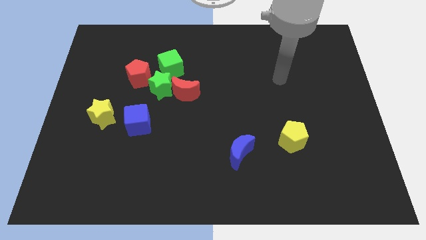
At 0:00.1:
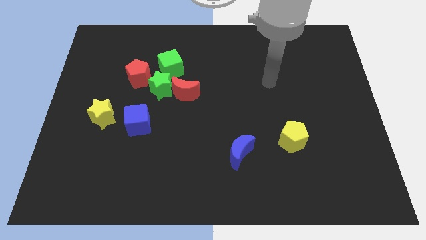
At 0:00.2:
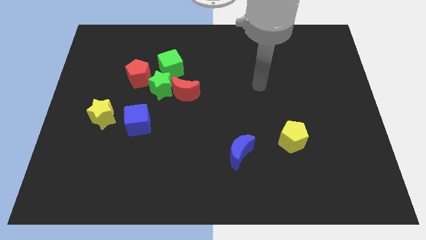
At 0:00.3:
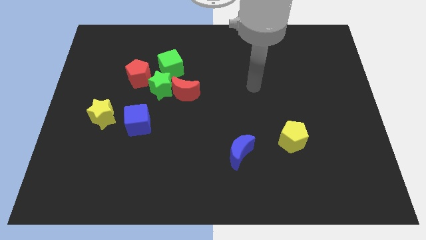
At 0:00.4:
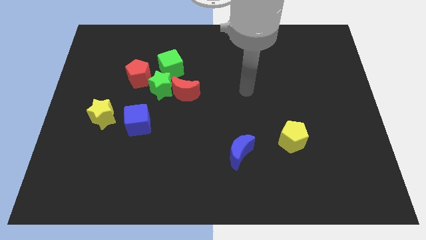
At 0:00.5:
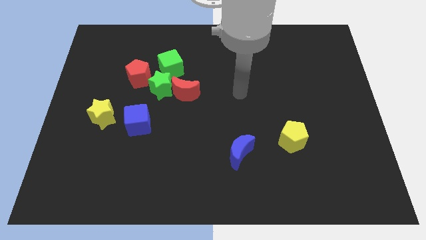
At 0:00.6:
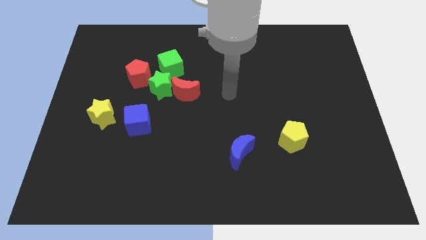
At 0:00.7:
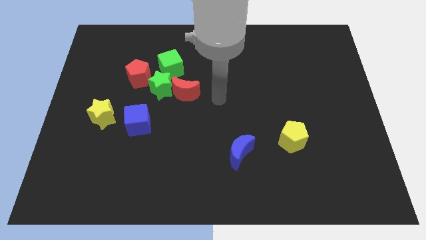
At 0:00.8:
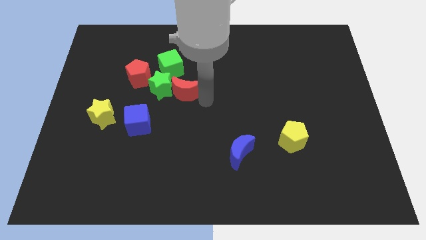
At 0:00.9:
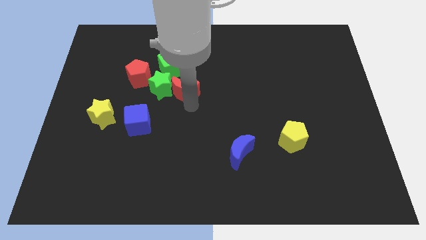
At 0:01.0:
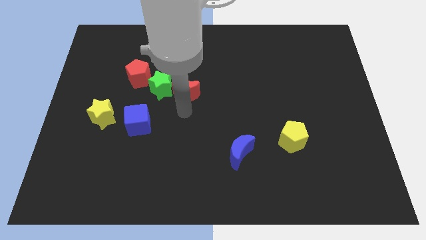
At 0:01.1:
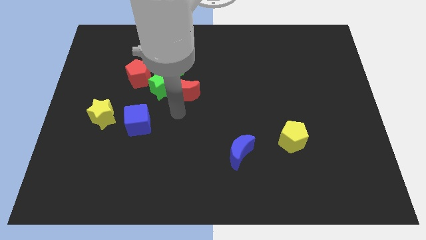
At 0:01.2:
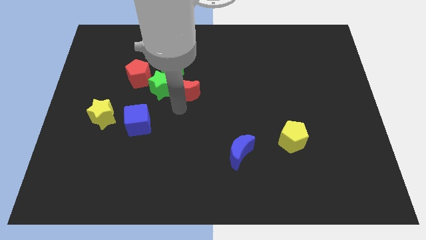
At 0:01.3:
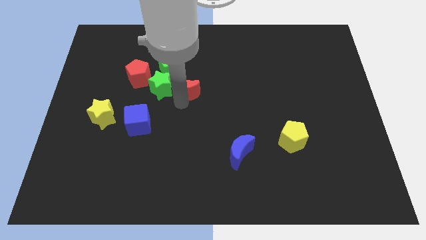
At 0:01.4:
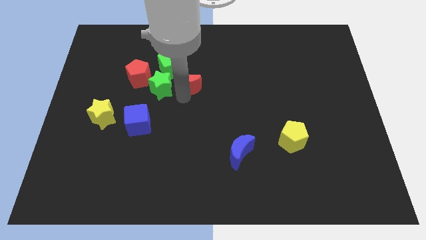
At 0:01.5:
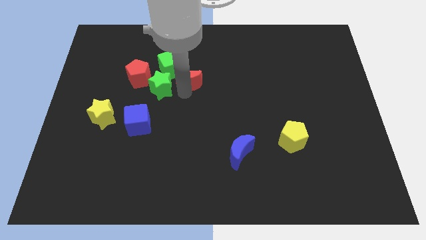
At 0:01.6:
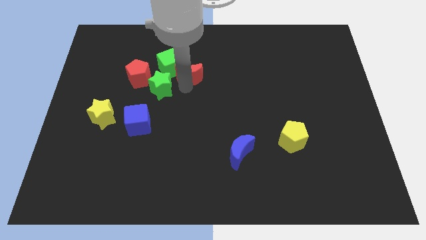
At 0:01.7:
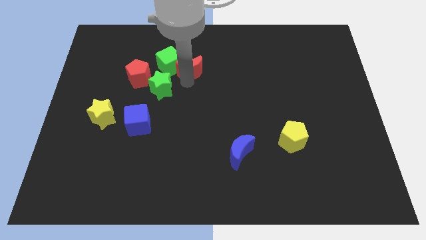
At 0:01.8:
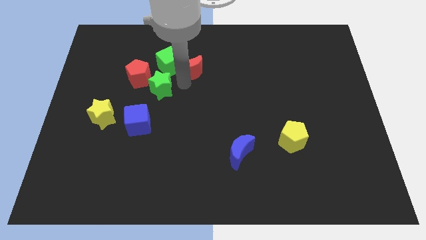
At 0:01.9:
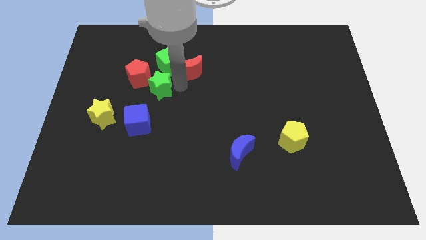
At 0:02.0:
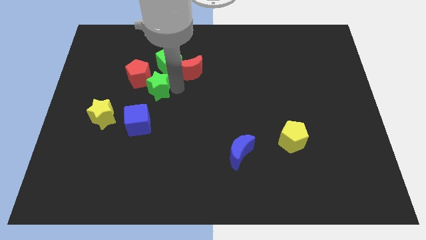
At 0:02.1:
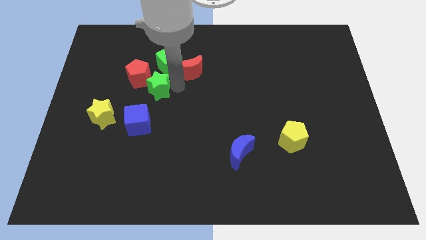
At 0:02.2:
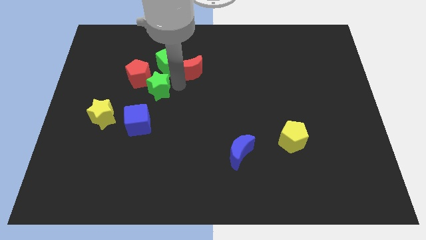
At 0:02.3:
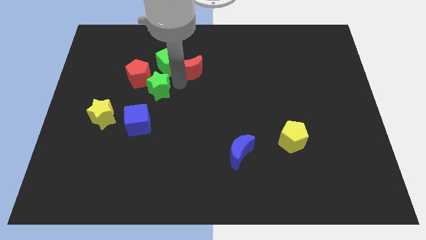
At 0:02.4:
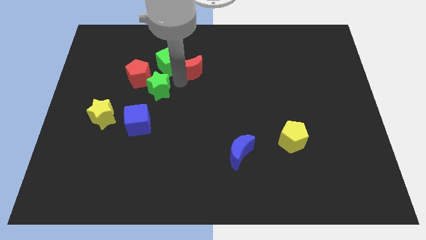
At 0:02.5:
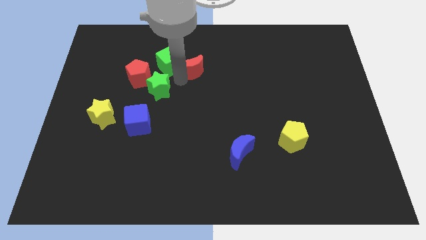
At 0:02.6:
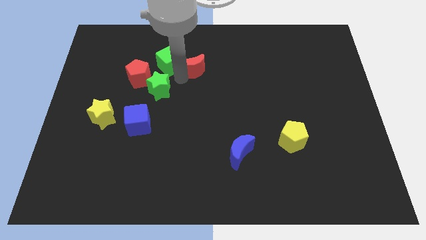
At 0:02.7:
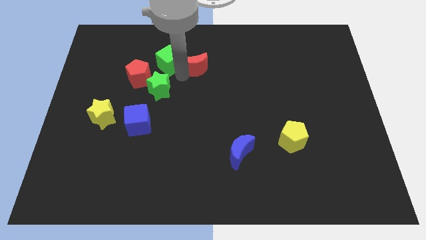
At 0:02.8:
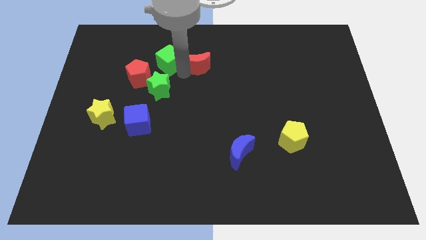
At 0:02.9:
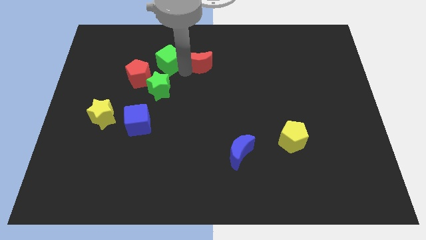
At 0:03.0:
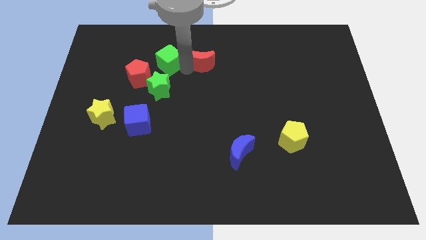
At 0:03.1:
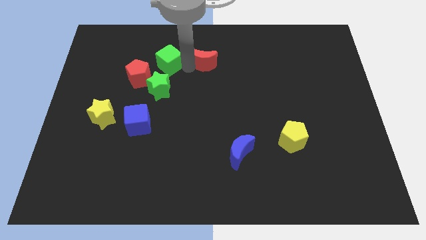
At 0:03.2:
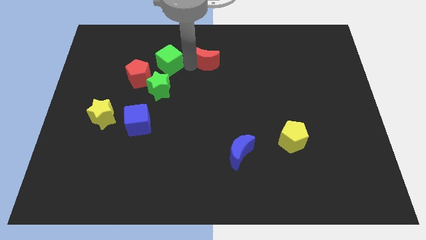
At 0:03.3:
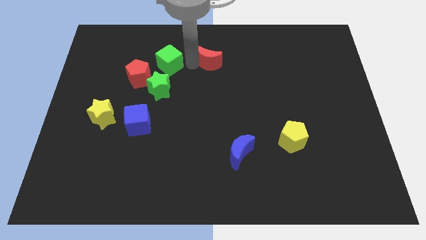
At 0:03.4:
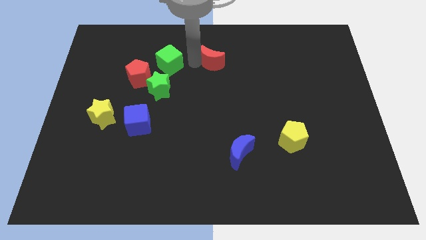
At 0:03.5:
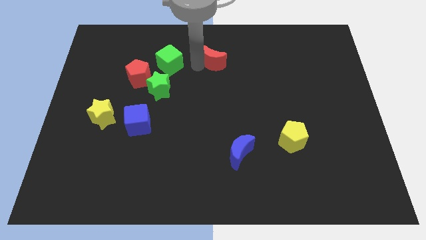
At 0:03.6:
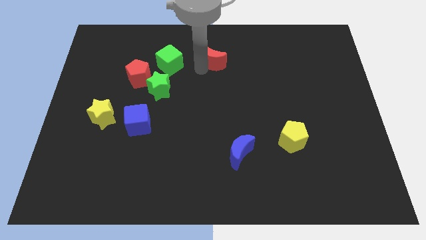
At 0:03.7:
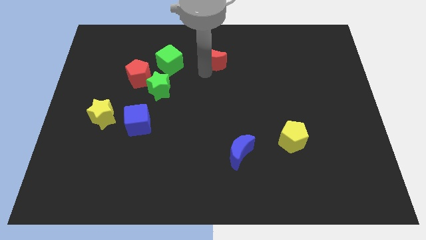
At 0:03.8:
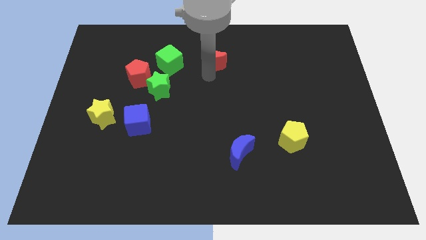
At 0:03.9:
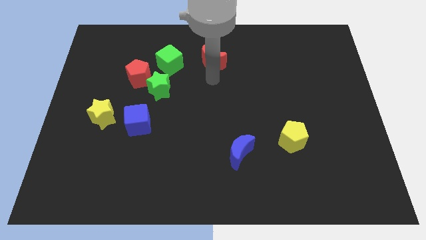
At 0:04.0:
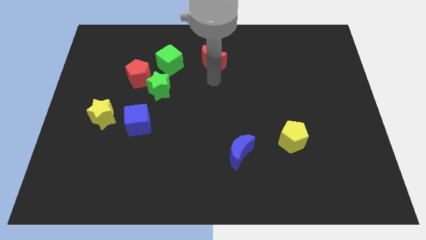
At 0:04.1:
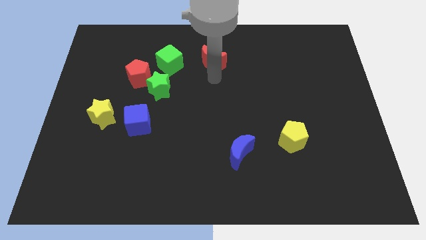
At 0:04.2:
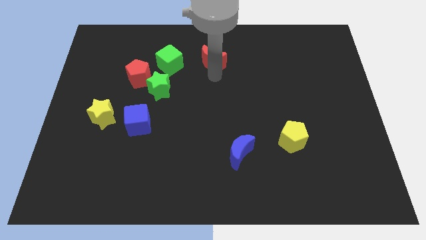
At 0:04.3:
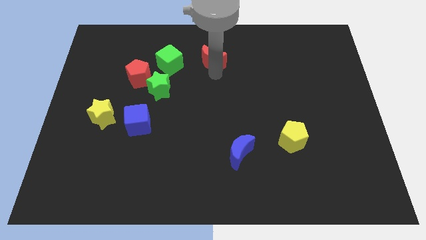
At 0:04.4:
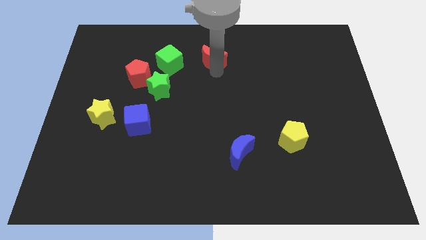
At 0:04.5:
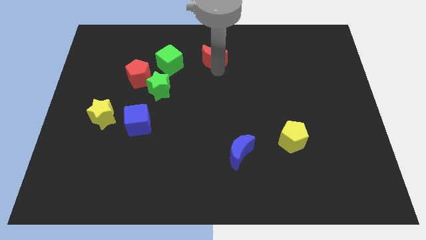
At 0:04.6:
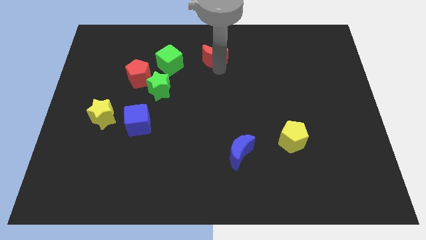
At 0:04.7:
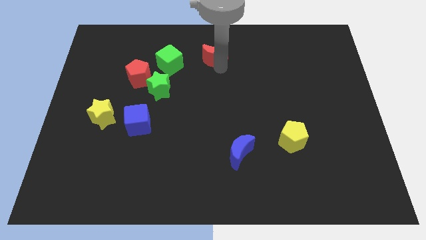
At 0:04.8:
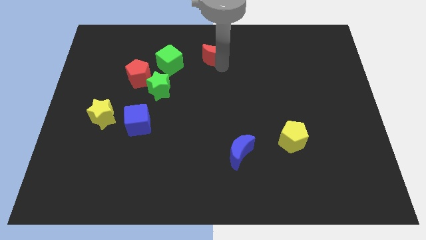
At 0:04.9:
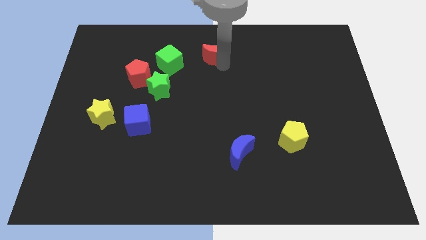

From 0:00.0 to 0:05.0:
move the red moon to the top side

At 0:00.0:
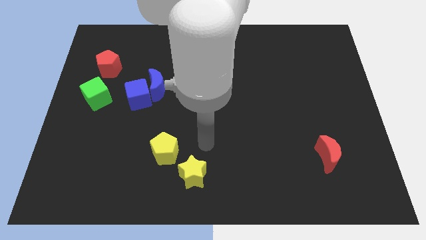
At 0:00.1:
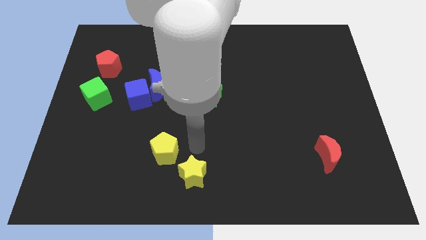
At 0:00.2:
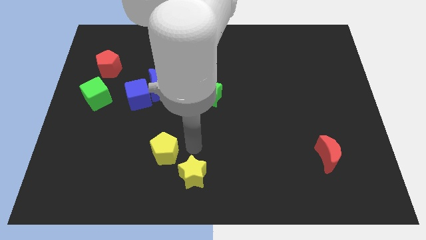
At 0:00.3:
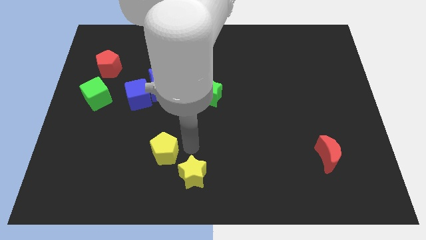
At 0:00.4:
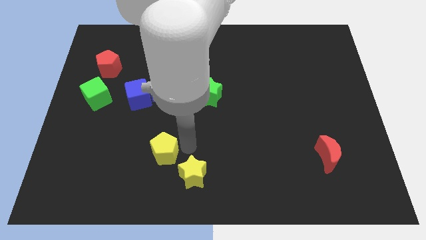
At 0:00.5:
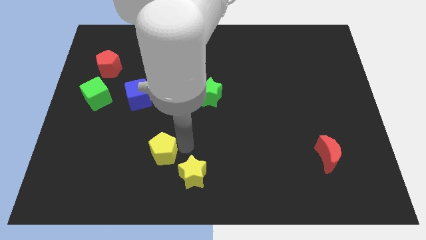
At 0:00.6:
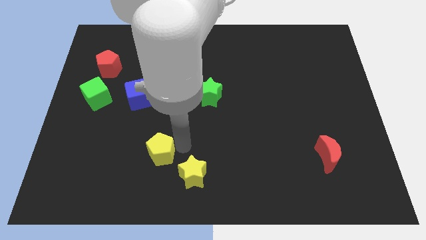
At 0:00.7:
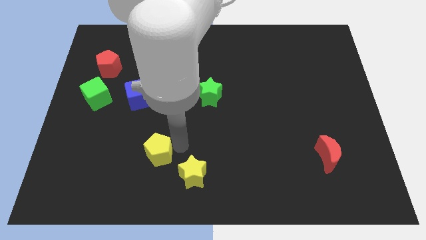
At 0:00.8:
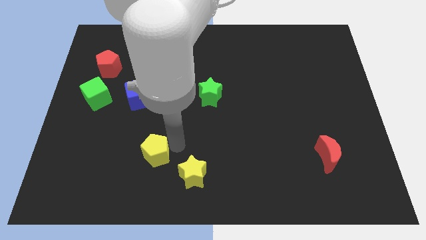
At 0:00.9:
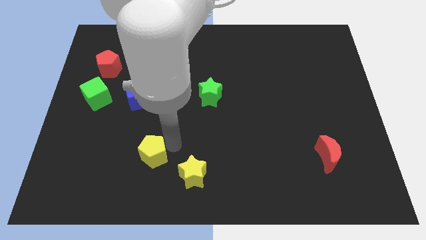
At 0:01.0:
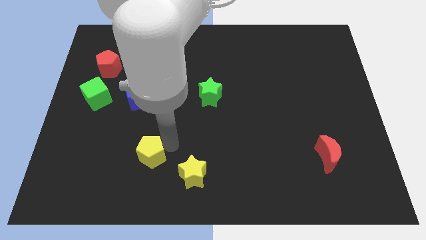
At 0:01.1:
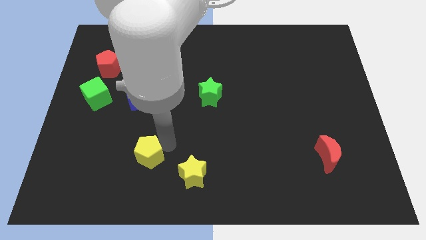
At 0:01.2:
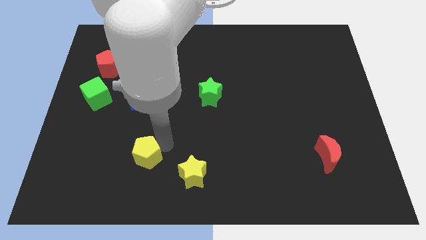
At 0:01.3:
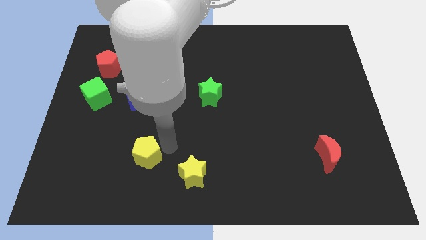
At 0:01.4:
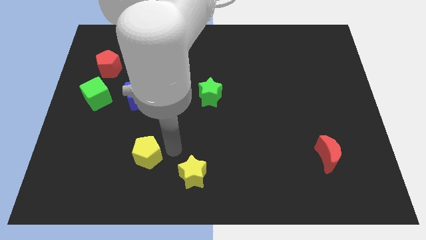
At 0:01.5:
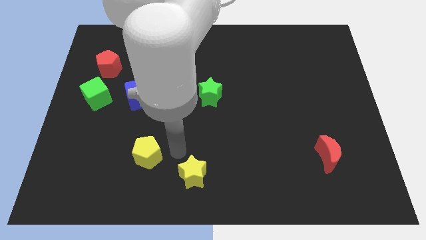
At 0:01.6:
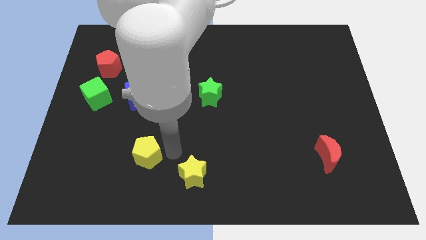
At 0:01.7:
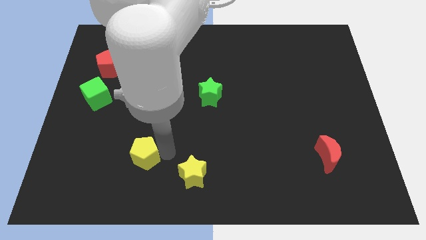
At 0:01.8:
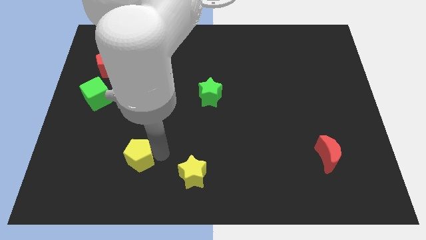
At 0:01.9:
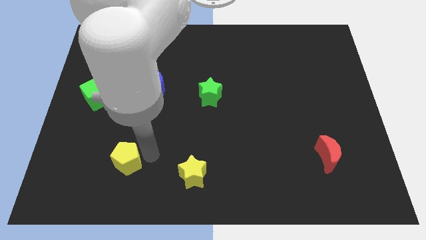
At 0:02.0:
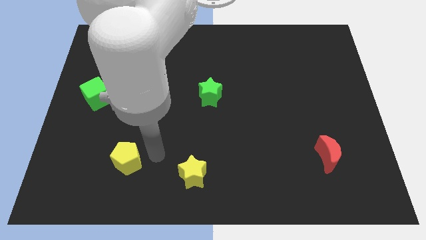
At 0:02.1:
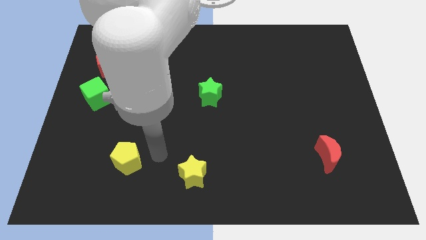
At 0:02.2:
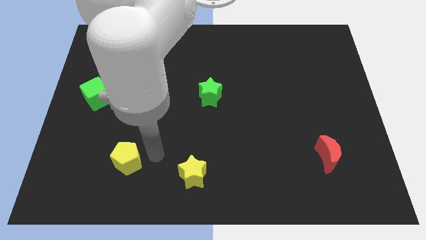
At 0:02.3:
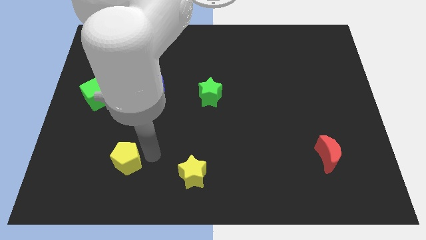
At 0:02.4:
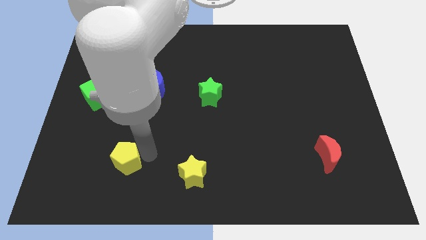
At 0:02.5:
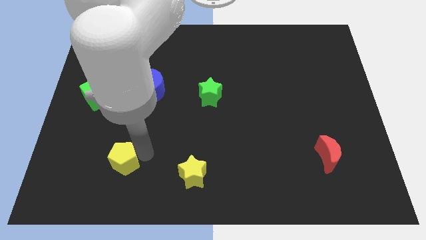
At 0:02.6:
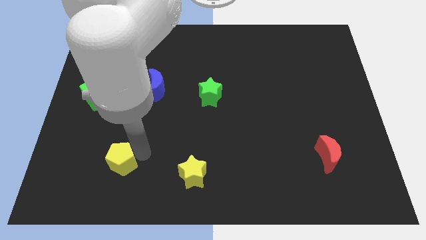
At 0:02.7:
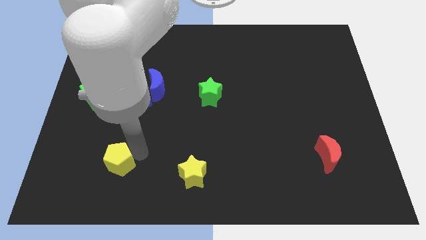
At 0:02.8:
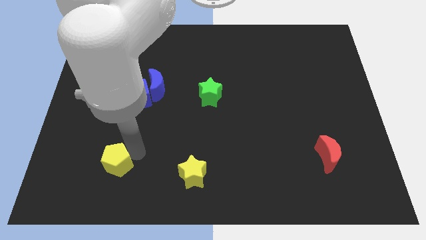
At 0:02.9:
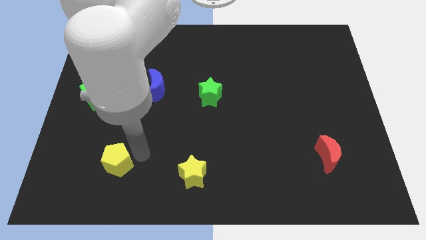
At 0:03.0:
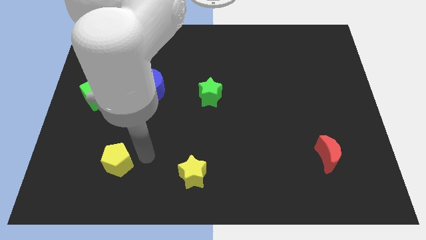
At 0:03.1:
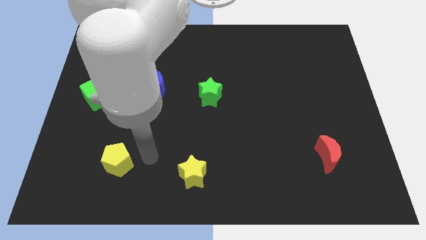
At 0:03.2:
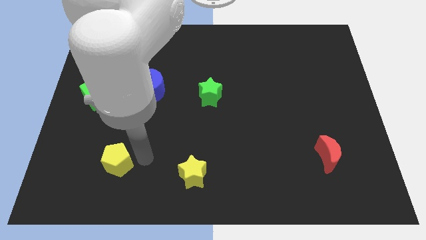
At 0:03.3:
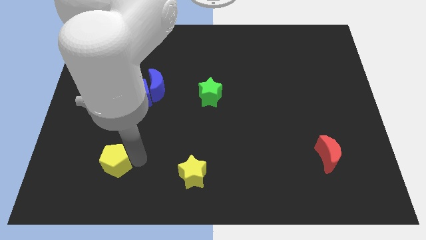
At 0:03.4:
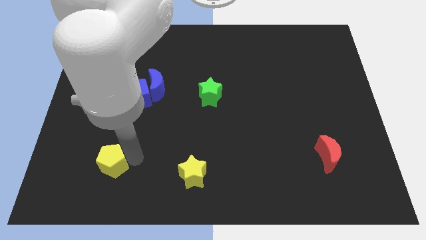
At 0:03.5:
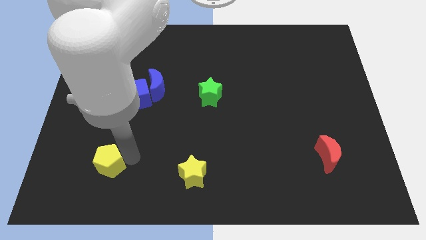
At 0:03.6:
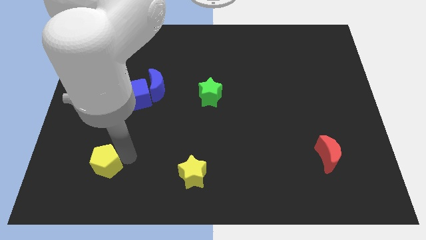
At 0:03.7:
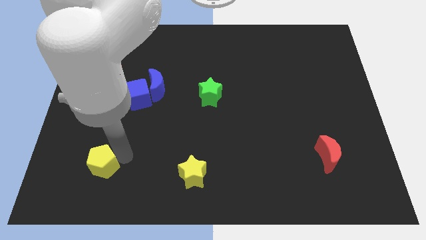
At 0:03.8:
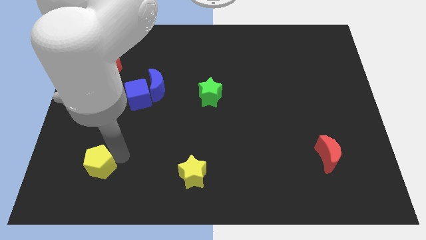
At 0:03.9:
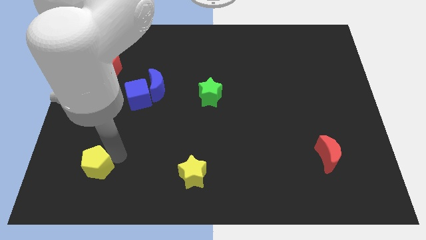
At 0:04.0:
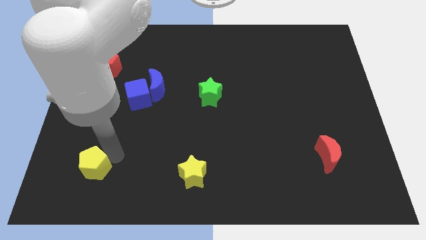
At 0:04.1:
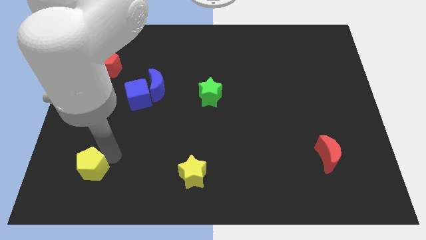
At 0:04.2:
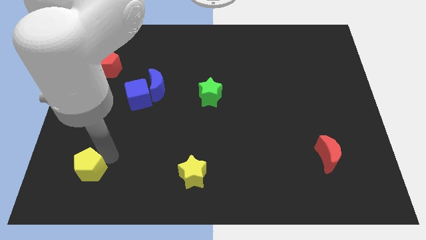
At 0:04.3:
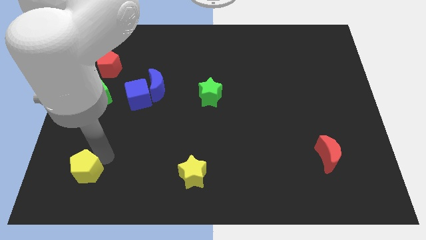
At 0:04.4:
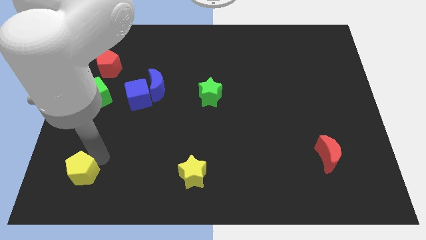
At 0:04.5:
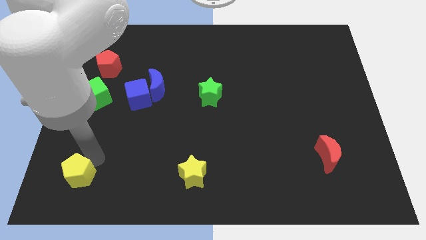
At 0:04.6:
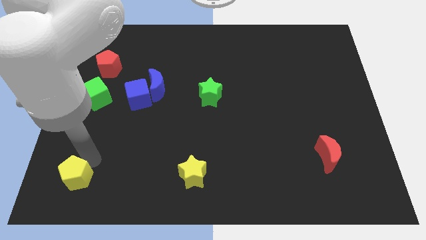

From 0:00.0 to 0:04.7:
put the yellow pentagon to the bottom left of the board
